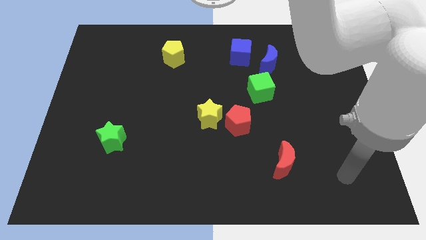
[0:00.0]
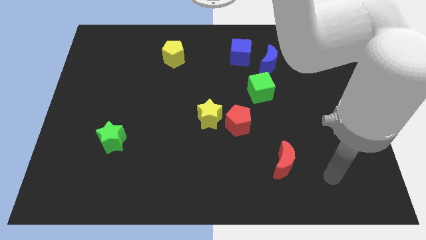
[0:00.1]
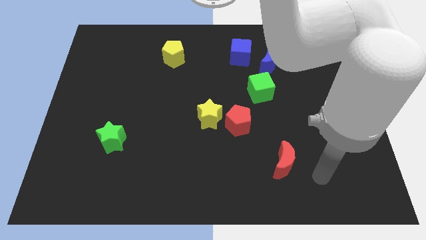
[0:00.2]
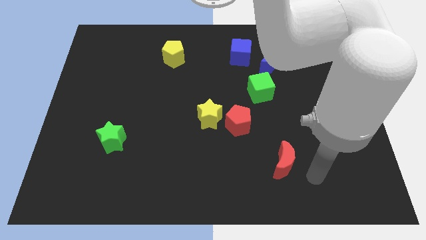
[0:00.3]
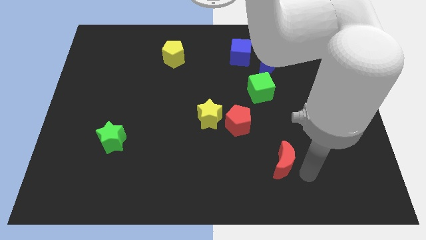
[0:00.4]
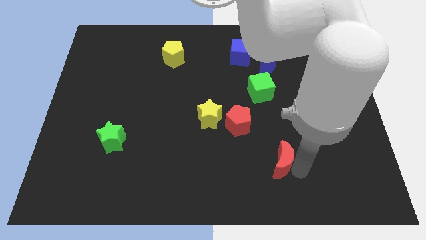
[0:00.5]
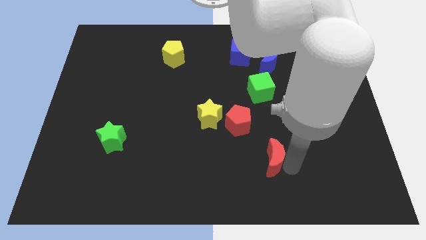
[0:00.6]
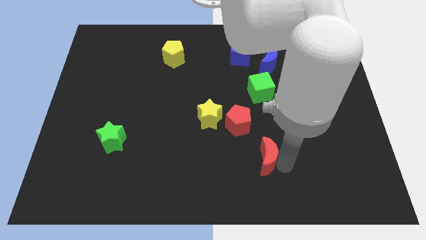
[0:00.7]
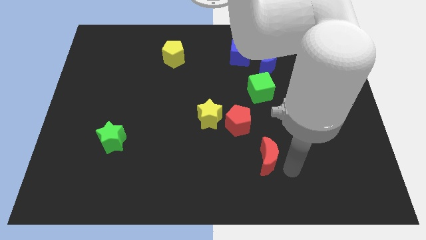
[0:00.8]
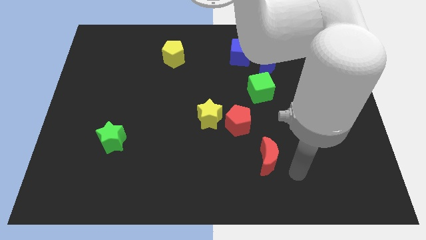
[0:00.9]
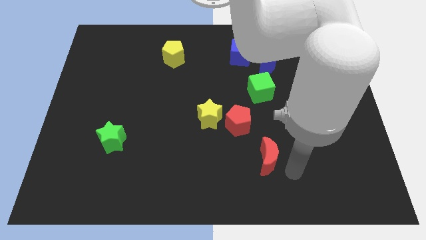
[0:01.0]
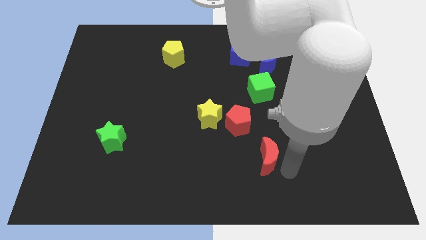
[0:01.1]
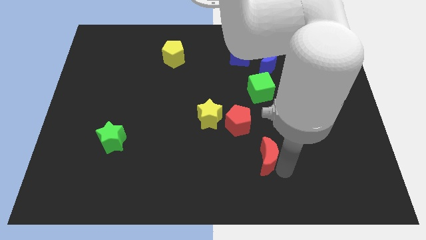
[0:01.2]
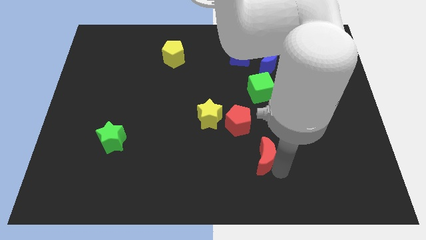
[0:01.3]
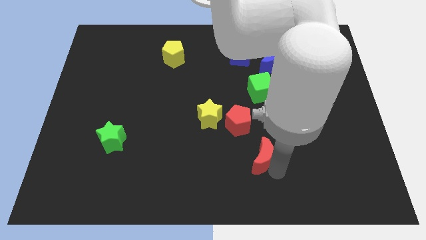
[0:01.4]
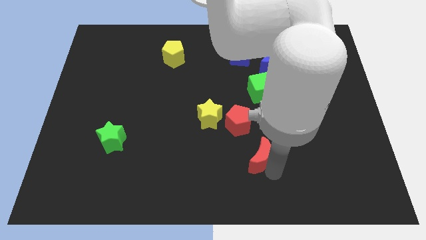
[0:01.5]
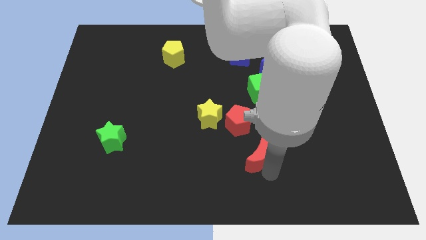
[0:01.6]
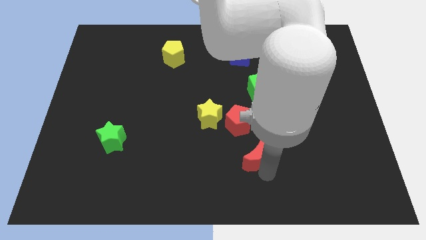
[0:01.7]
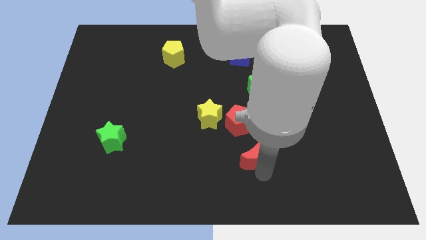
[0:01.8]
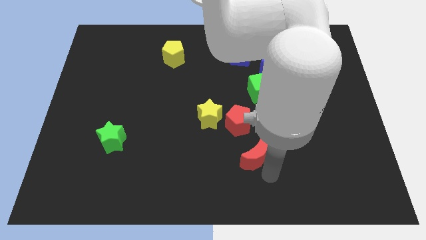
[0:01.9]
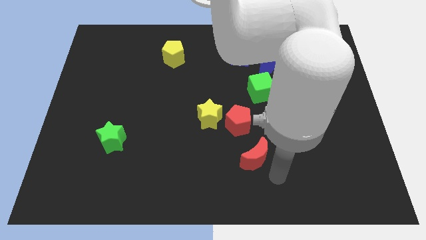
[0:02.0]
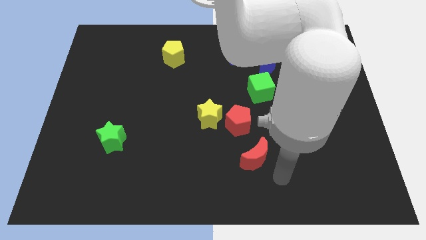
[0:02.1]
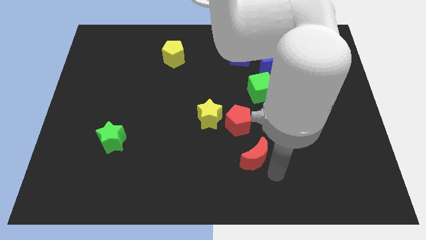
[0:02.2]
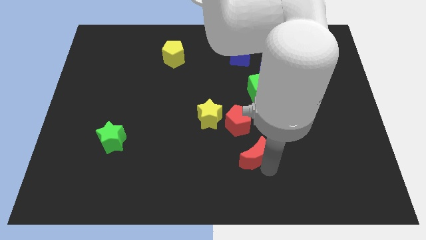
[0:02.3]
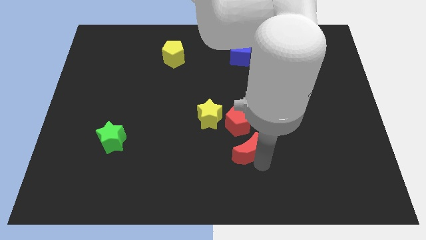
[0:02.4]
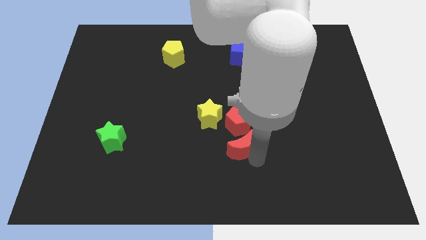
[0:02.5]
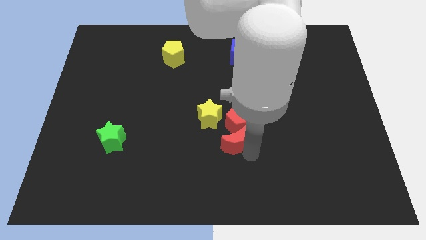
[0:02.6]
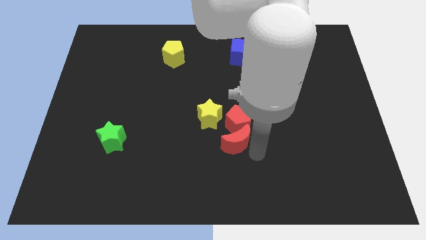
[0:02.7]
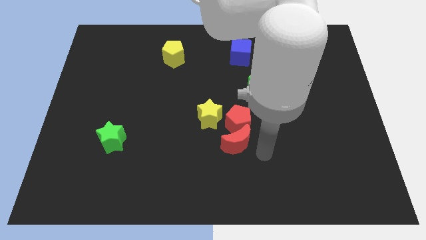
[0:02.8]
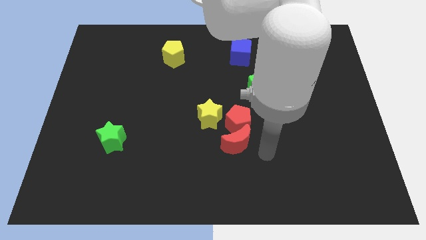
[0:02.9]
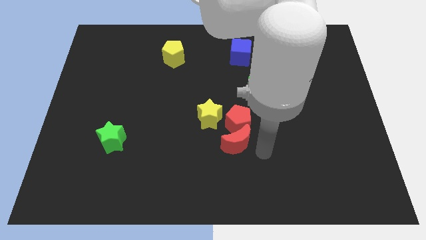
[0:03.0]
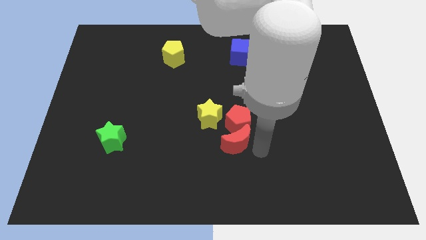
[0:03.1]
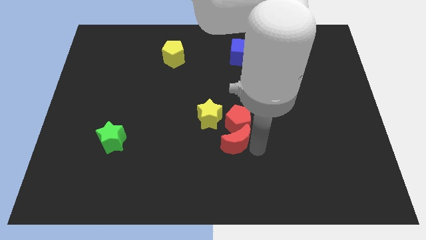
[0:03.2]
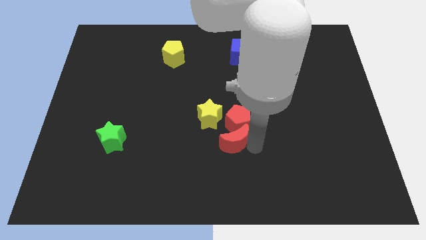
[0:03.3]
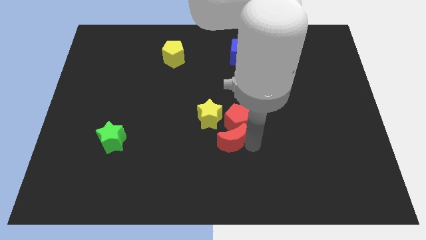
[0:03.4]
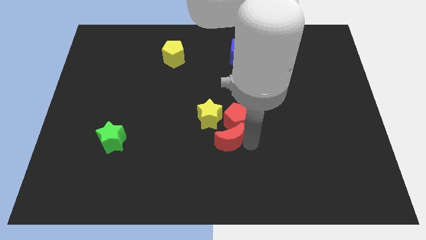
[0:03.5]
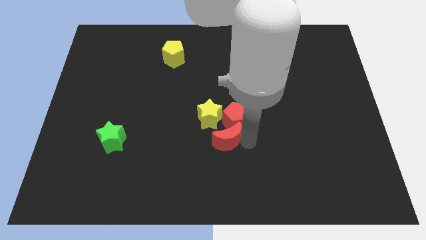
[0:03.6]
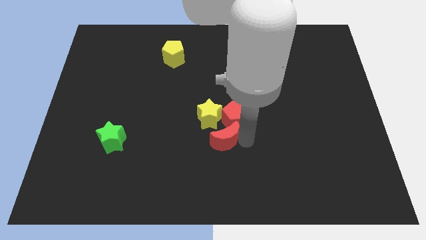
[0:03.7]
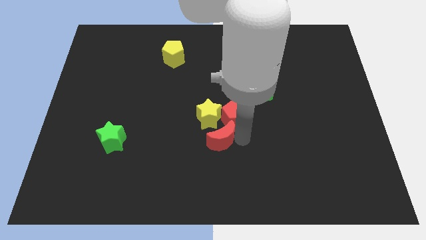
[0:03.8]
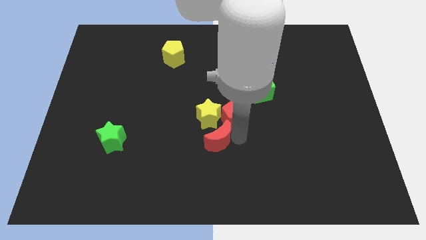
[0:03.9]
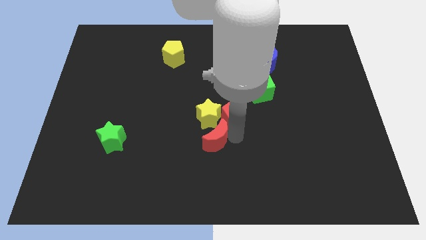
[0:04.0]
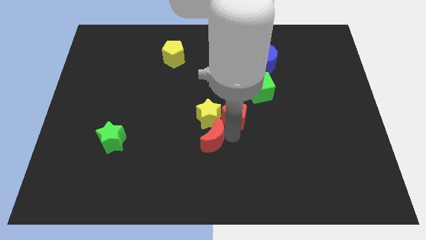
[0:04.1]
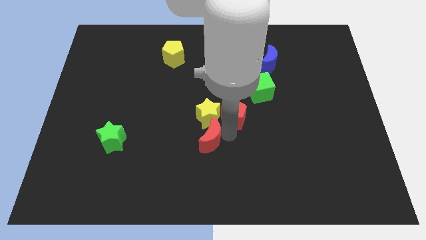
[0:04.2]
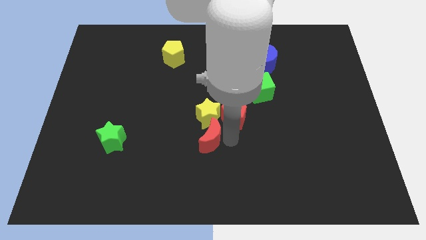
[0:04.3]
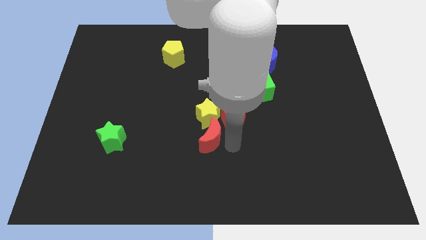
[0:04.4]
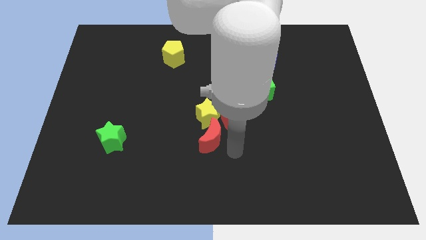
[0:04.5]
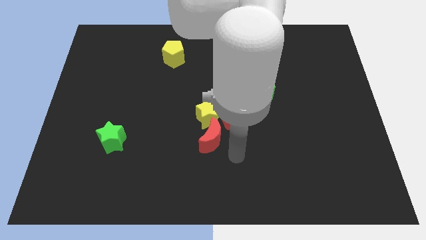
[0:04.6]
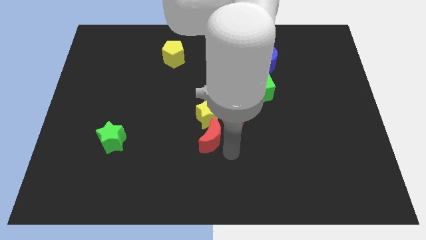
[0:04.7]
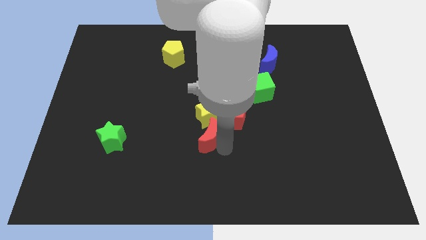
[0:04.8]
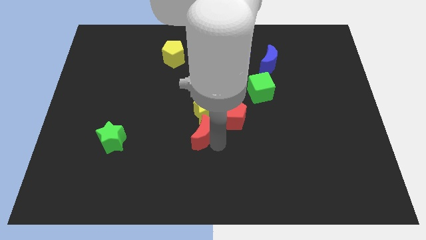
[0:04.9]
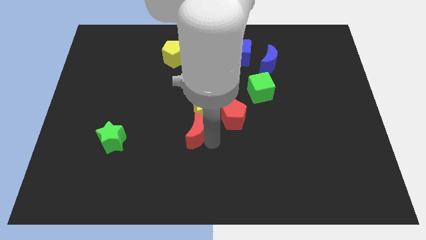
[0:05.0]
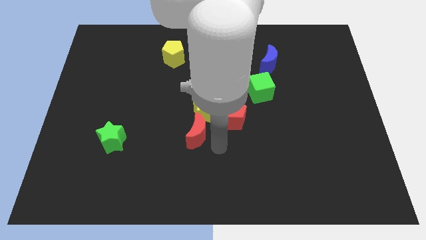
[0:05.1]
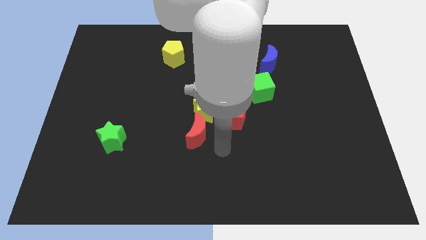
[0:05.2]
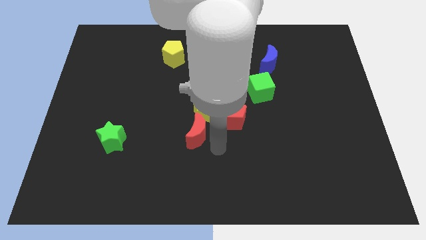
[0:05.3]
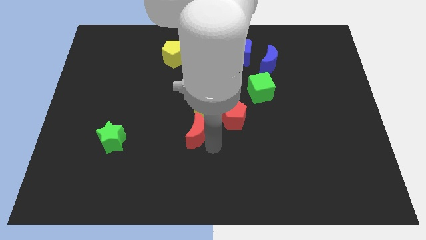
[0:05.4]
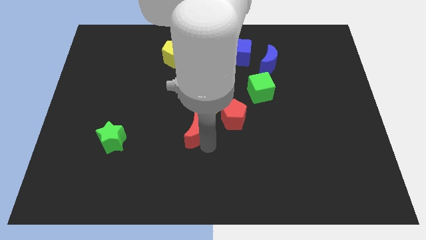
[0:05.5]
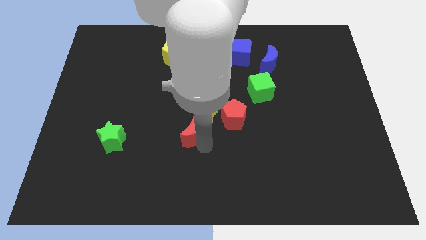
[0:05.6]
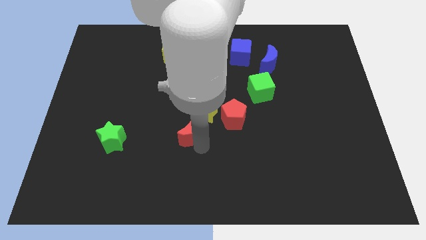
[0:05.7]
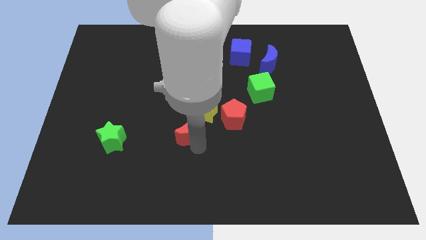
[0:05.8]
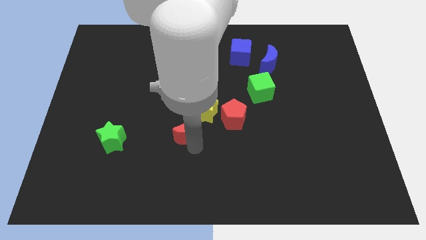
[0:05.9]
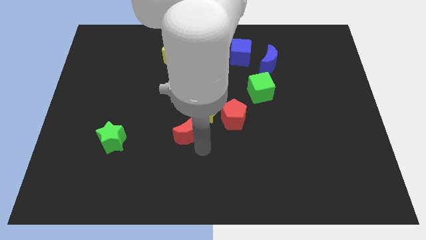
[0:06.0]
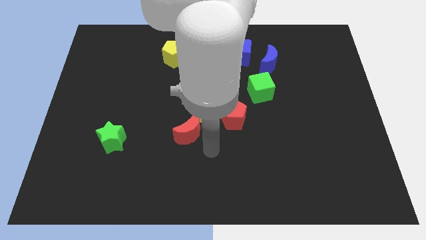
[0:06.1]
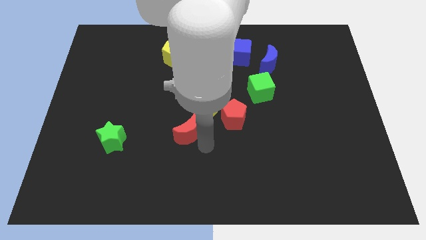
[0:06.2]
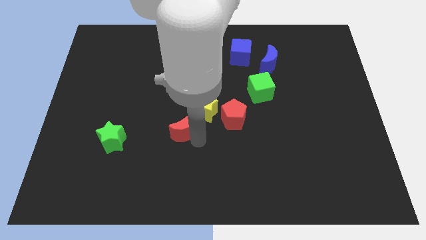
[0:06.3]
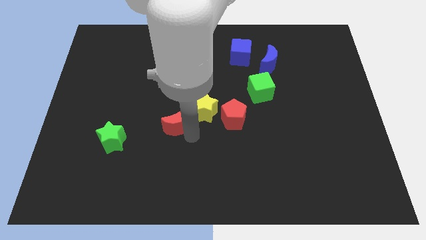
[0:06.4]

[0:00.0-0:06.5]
move the red moon to the left of the yellow star
